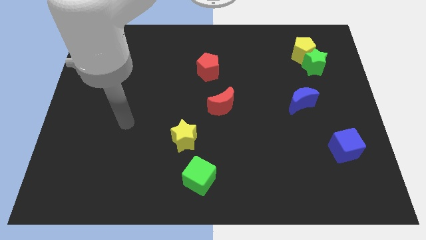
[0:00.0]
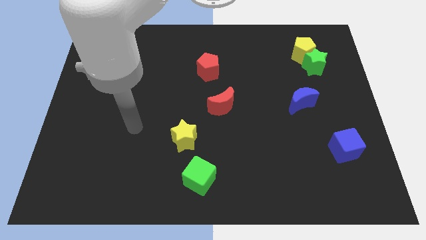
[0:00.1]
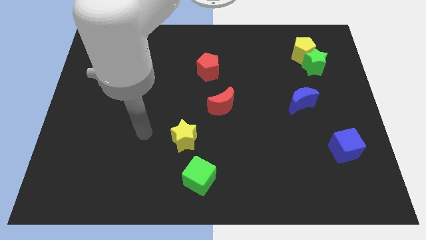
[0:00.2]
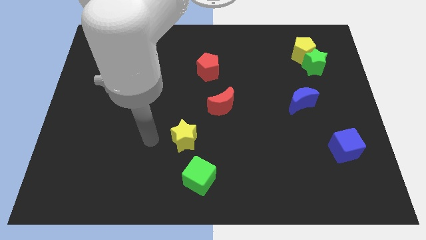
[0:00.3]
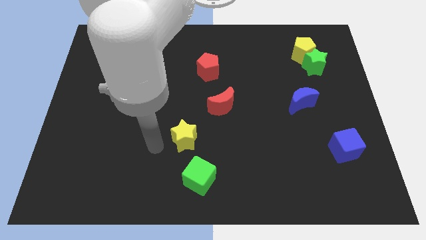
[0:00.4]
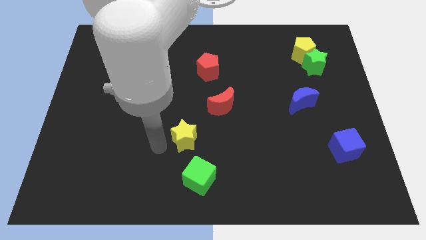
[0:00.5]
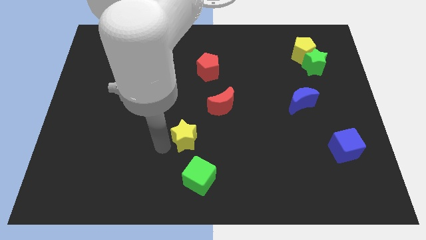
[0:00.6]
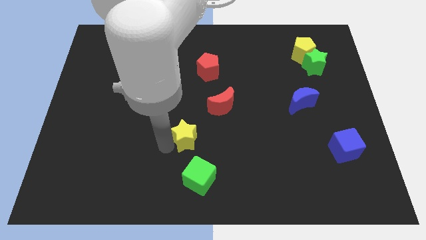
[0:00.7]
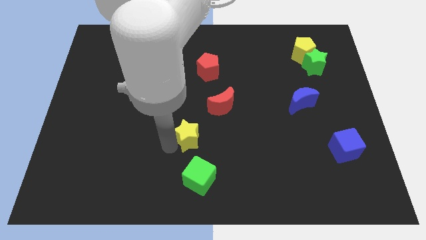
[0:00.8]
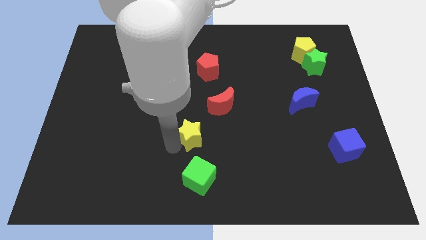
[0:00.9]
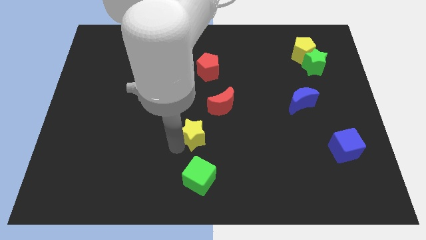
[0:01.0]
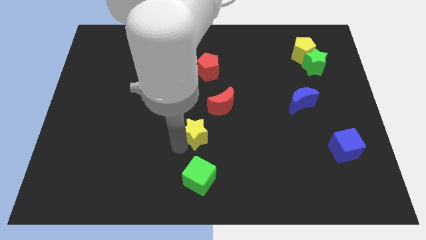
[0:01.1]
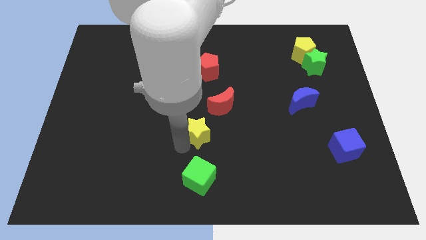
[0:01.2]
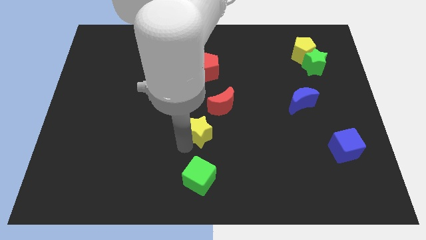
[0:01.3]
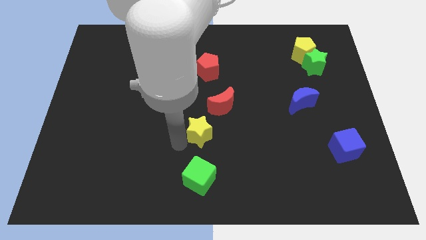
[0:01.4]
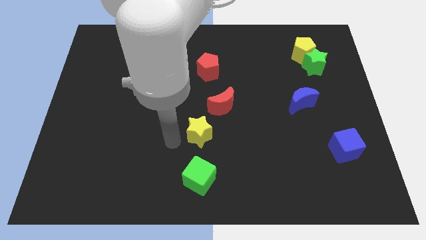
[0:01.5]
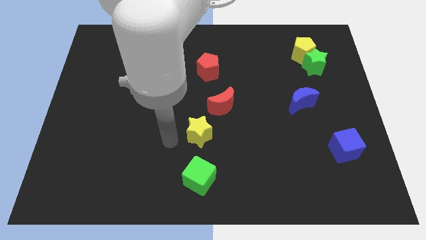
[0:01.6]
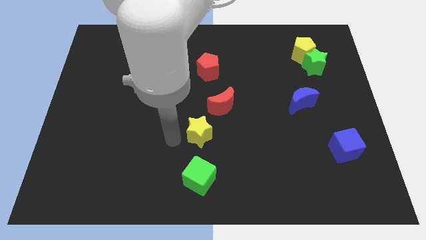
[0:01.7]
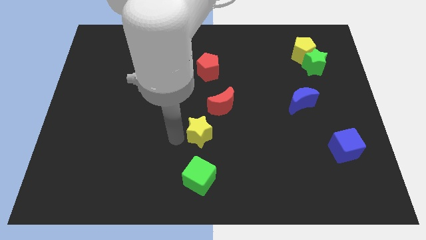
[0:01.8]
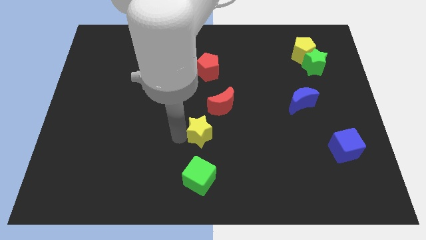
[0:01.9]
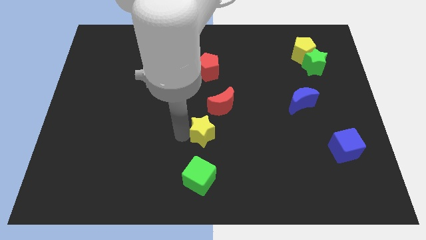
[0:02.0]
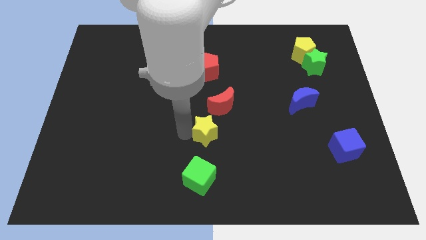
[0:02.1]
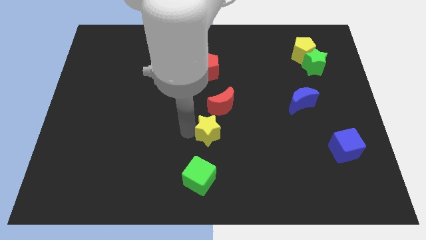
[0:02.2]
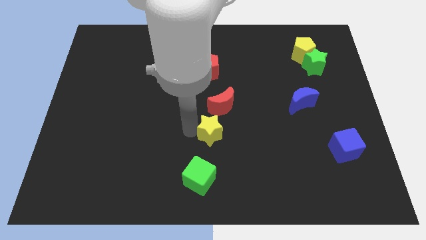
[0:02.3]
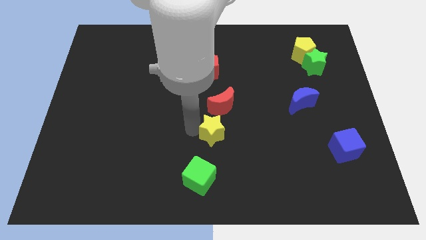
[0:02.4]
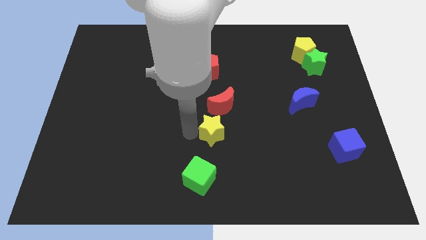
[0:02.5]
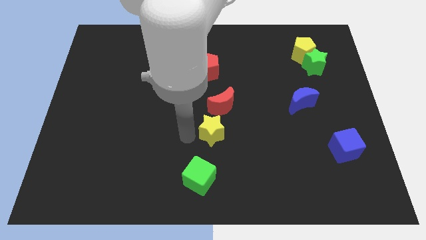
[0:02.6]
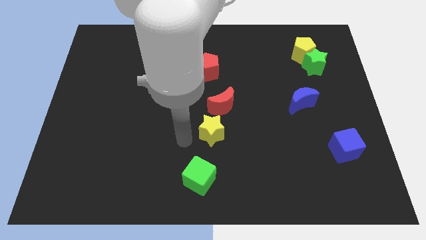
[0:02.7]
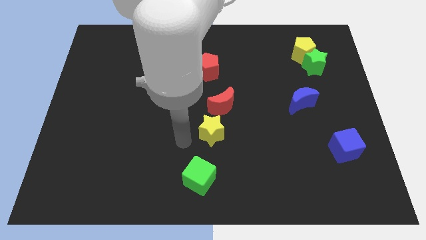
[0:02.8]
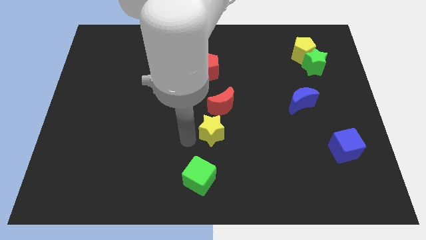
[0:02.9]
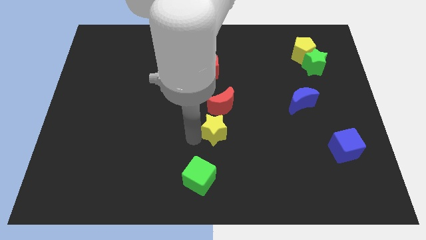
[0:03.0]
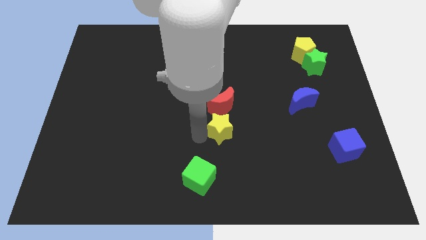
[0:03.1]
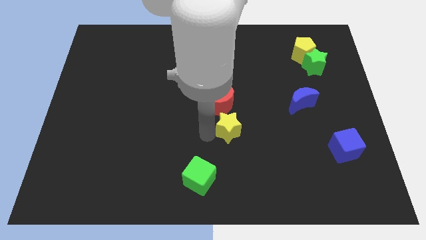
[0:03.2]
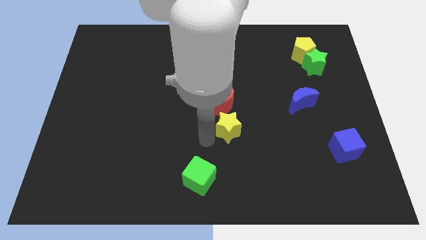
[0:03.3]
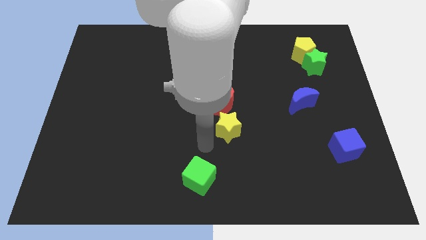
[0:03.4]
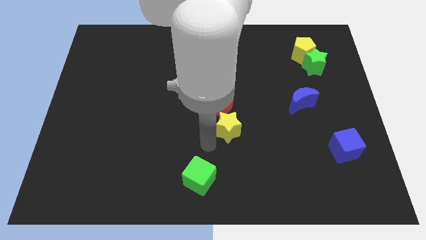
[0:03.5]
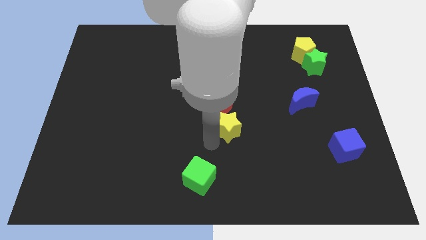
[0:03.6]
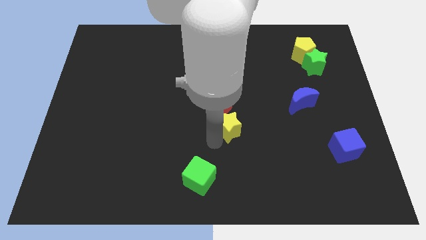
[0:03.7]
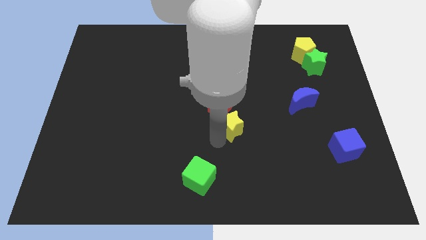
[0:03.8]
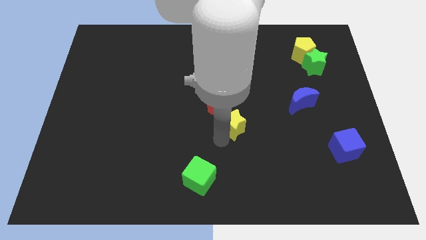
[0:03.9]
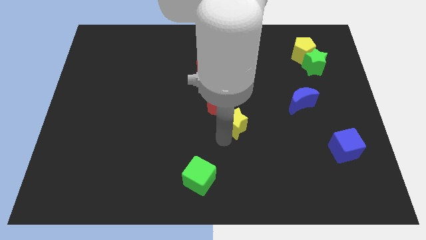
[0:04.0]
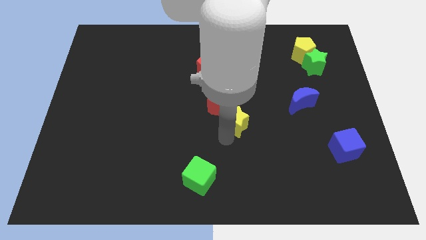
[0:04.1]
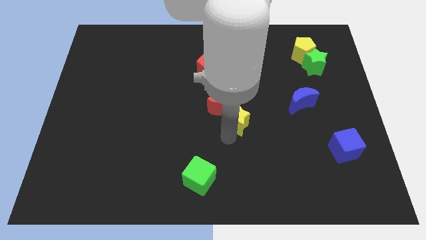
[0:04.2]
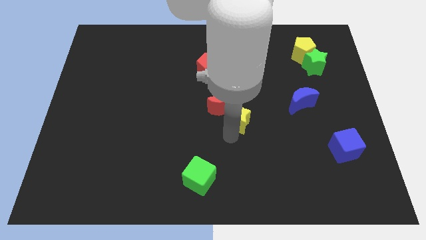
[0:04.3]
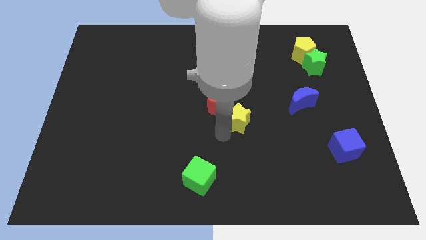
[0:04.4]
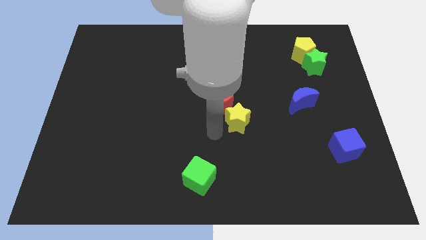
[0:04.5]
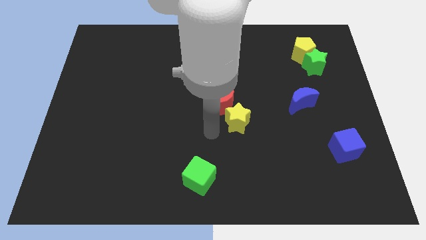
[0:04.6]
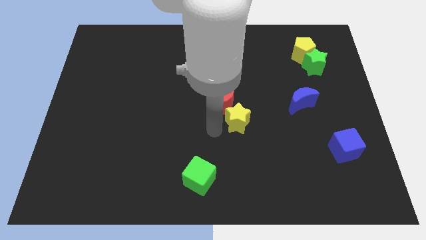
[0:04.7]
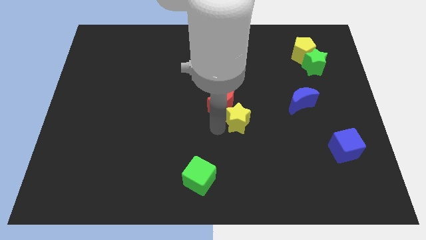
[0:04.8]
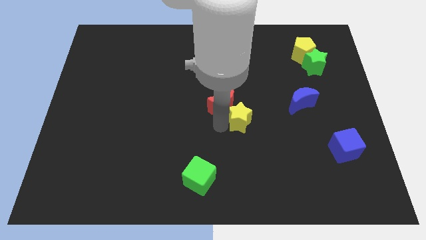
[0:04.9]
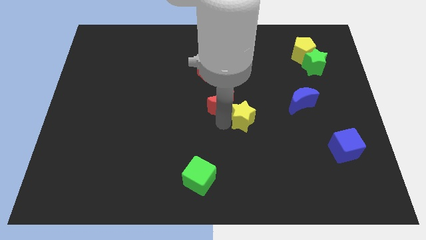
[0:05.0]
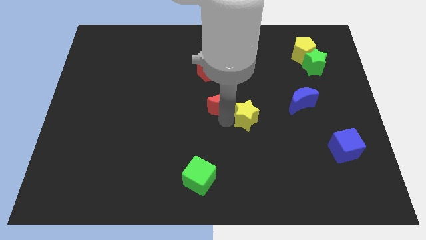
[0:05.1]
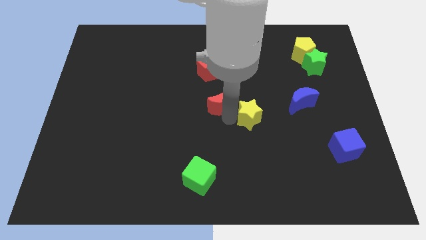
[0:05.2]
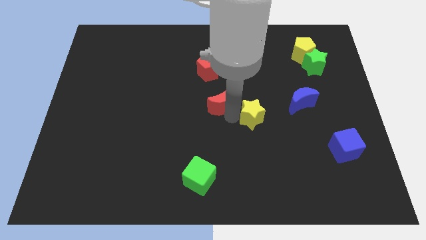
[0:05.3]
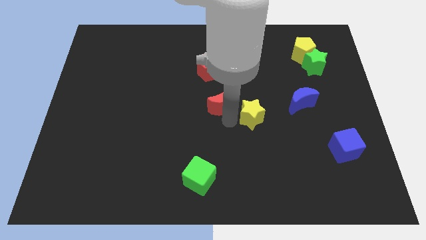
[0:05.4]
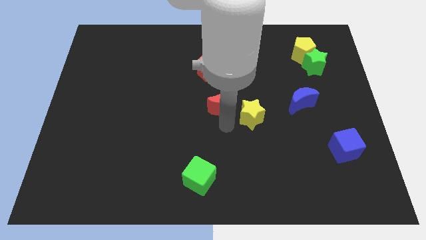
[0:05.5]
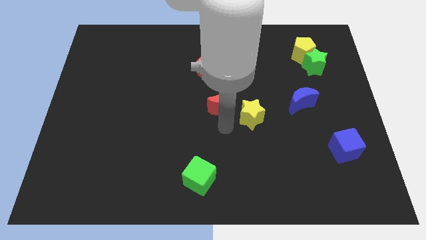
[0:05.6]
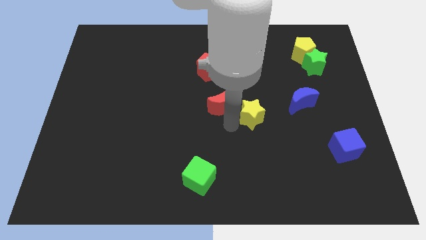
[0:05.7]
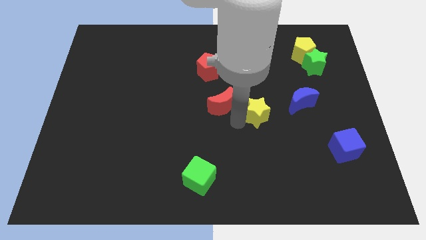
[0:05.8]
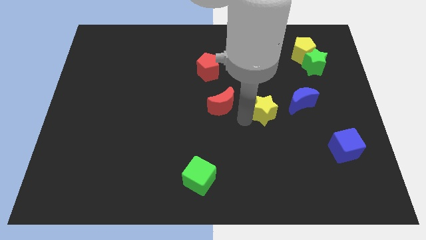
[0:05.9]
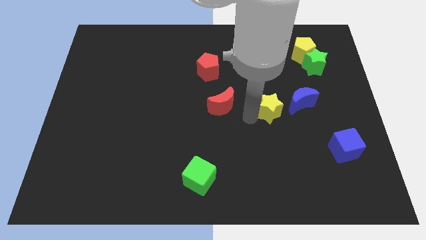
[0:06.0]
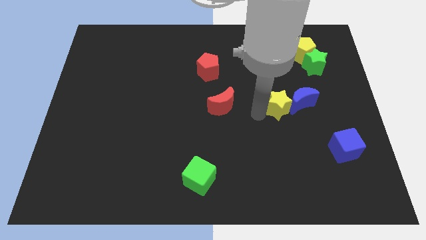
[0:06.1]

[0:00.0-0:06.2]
push the yellow star towards the blue moon
